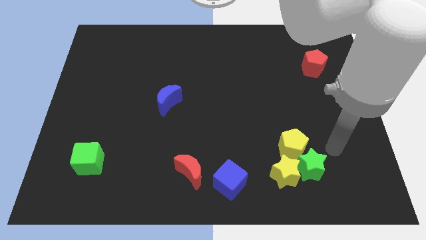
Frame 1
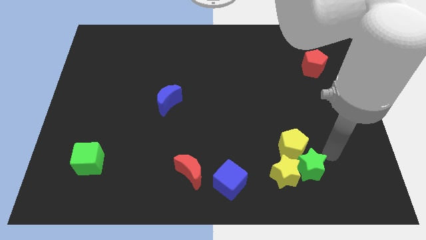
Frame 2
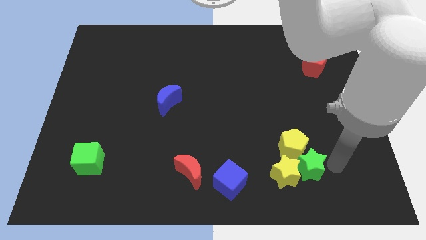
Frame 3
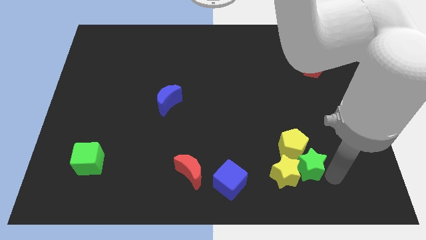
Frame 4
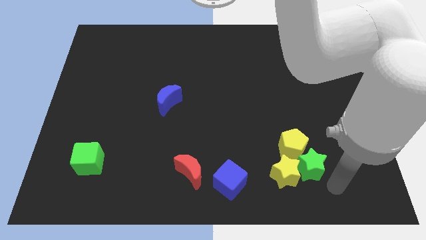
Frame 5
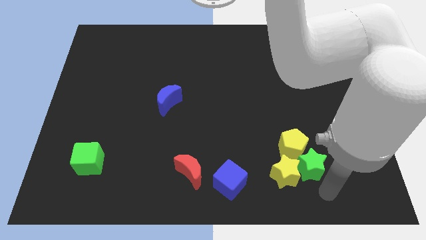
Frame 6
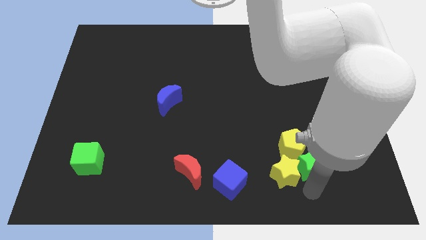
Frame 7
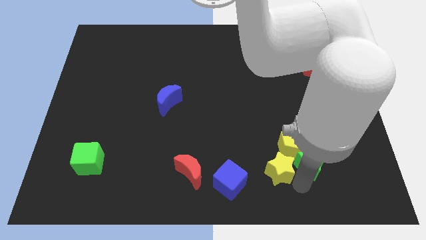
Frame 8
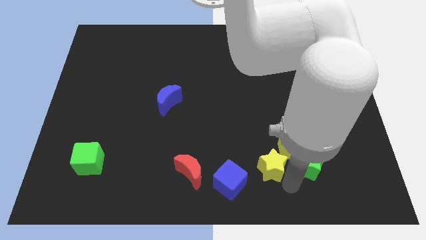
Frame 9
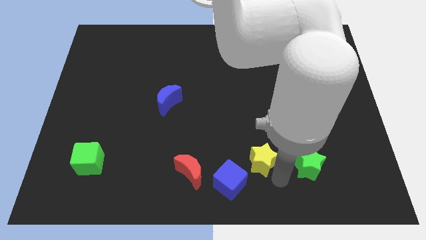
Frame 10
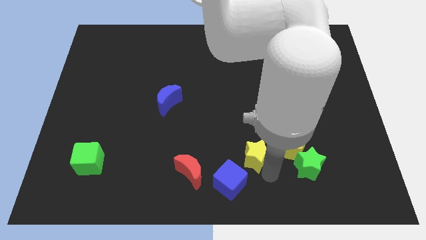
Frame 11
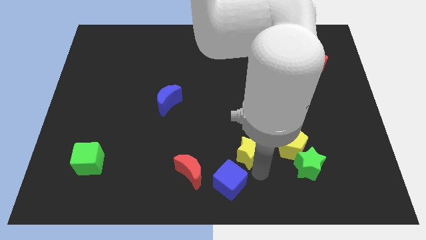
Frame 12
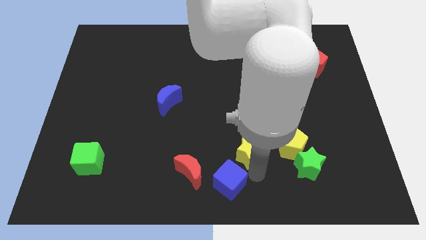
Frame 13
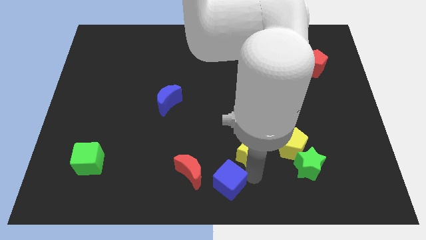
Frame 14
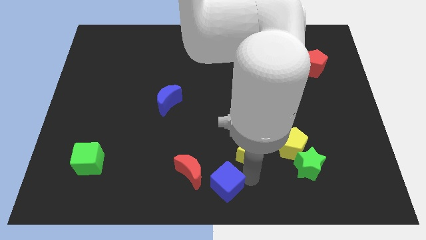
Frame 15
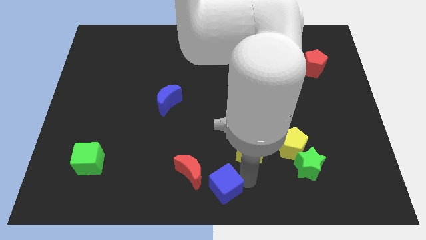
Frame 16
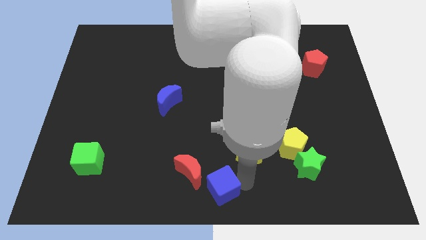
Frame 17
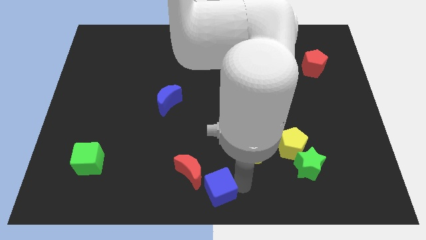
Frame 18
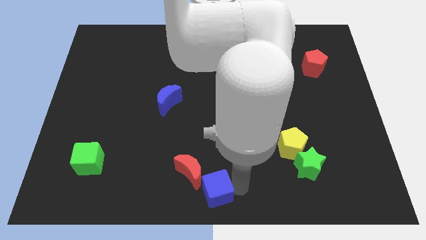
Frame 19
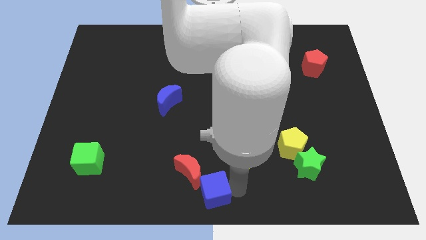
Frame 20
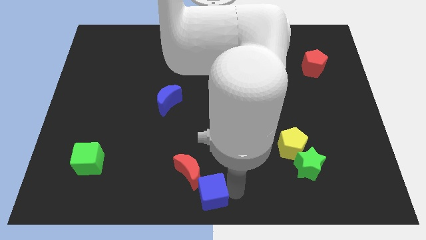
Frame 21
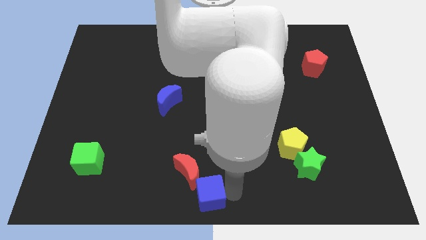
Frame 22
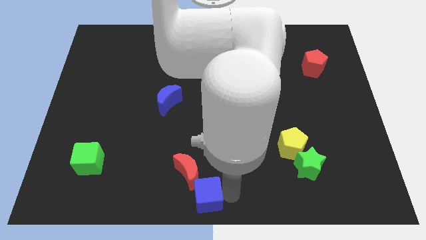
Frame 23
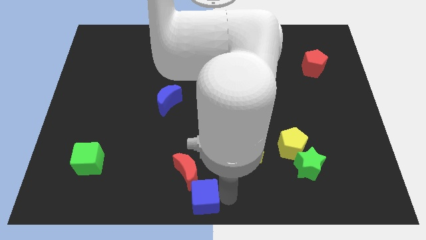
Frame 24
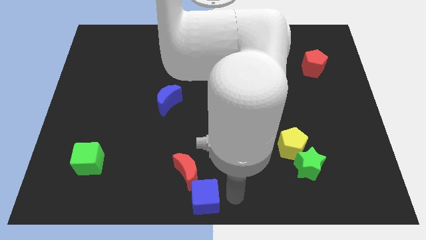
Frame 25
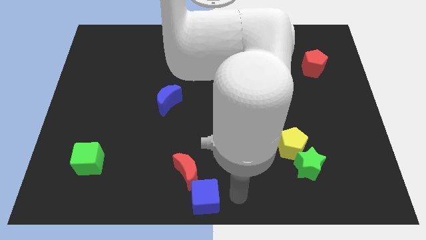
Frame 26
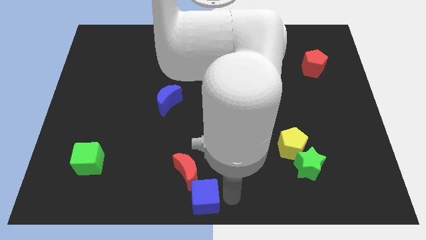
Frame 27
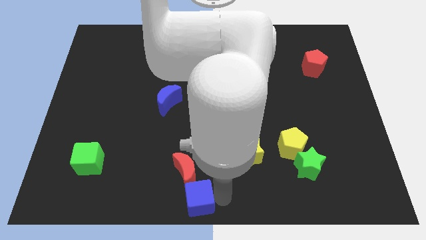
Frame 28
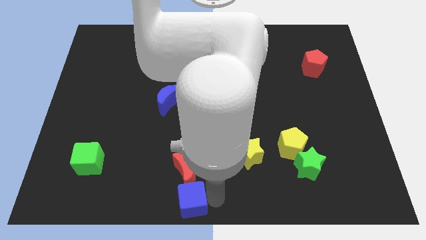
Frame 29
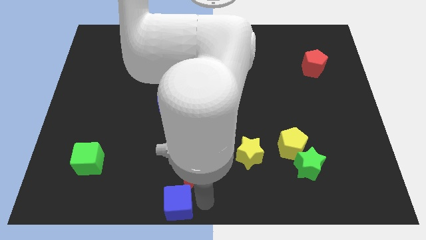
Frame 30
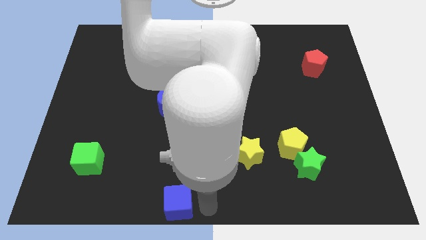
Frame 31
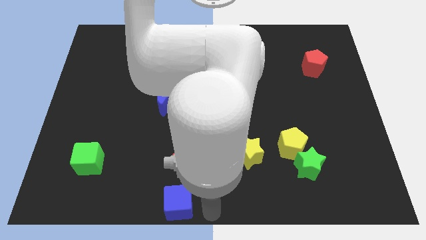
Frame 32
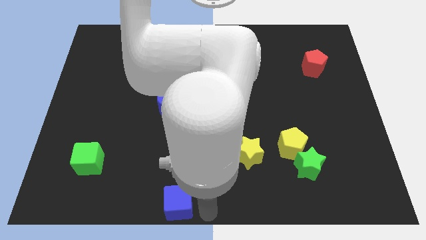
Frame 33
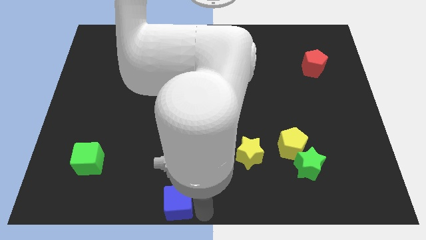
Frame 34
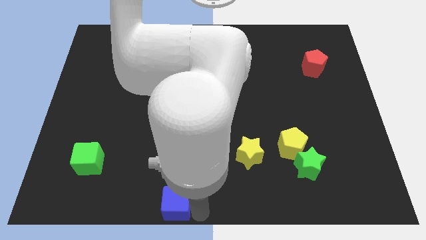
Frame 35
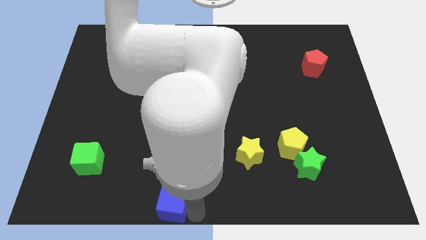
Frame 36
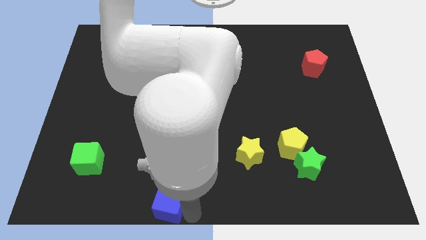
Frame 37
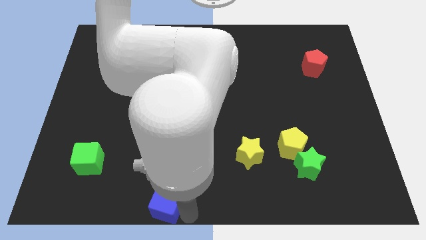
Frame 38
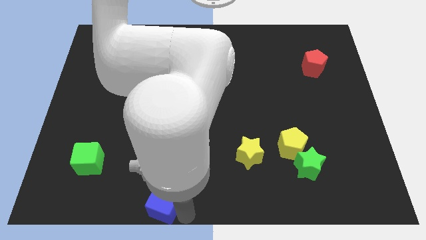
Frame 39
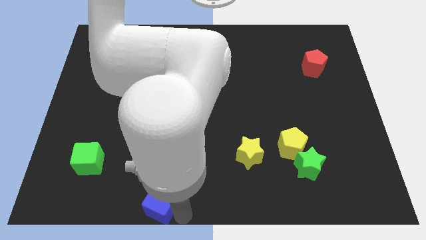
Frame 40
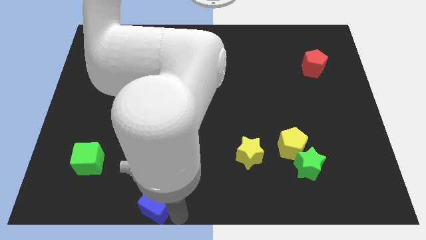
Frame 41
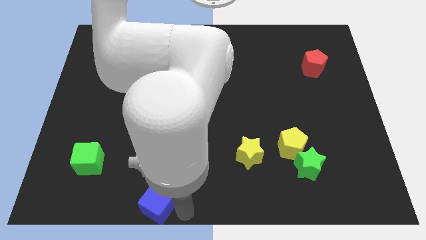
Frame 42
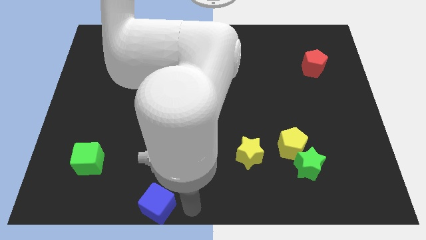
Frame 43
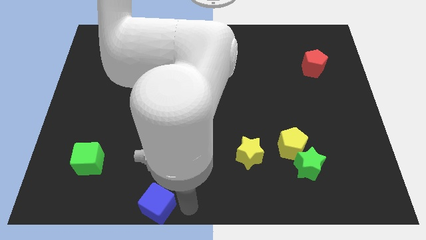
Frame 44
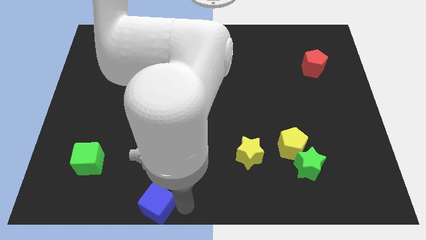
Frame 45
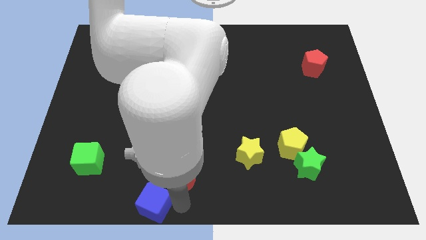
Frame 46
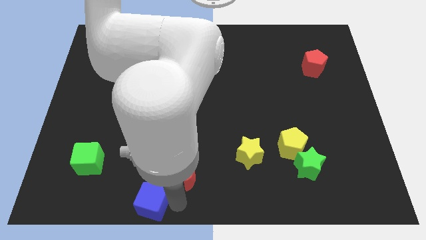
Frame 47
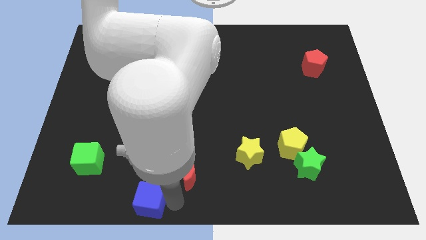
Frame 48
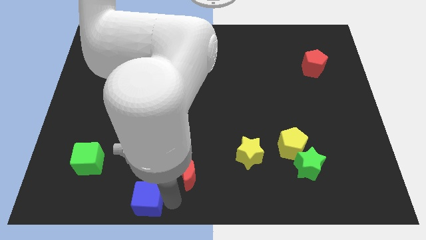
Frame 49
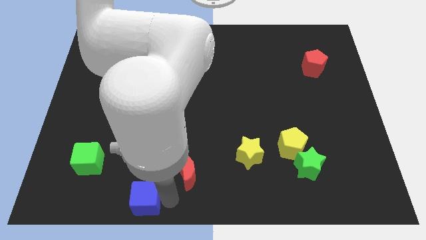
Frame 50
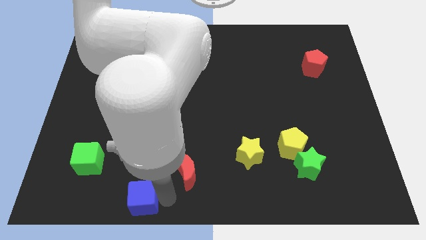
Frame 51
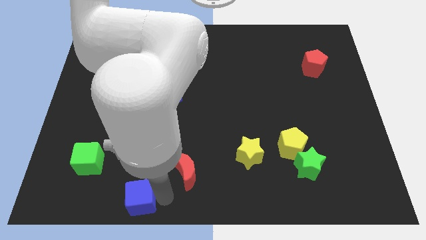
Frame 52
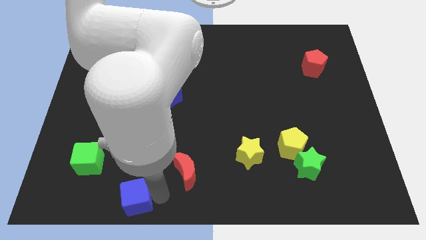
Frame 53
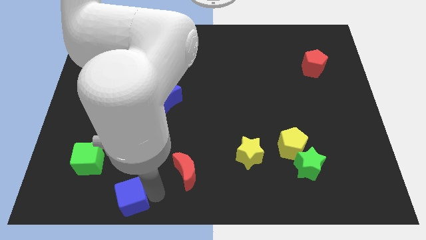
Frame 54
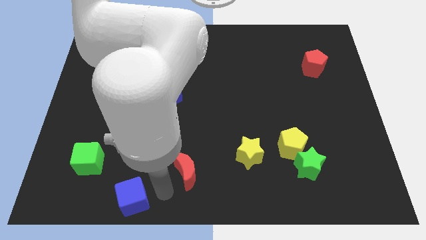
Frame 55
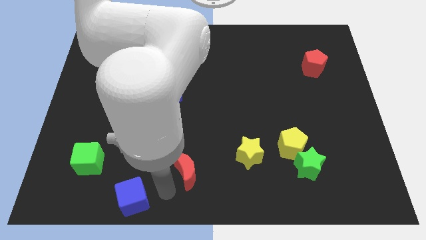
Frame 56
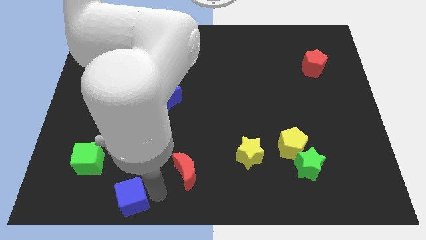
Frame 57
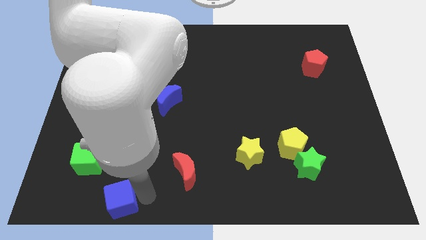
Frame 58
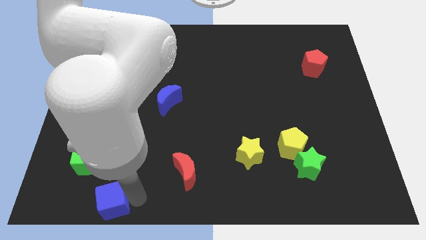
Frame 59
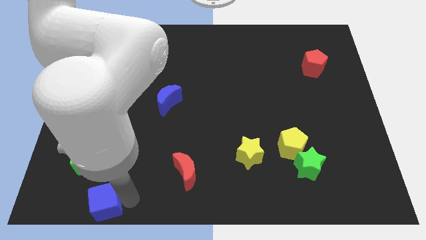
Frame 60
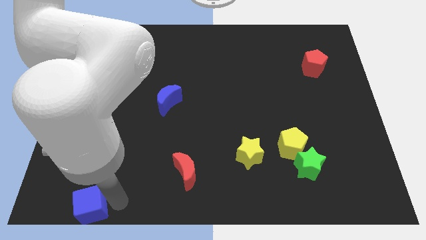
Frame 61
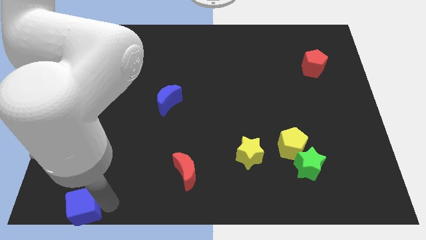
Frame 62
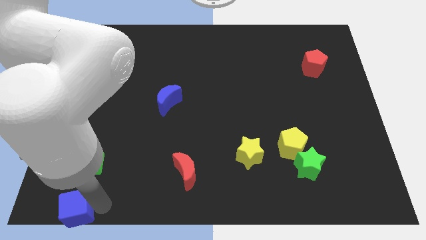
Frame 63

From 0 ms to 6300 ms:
move the blue cube to the bottom left of the board

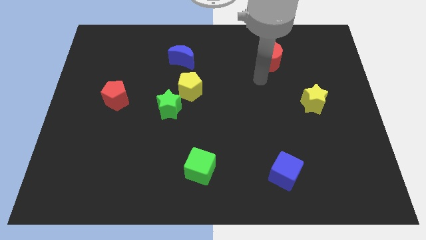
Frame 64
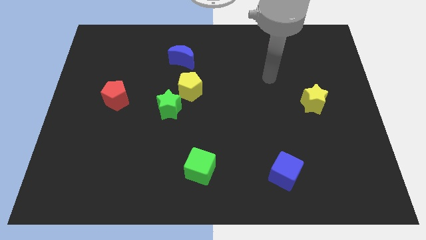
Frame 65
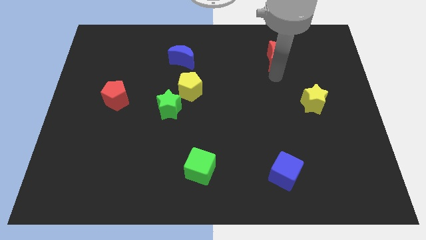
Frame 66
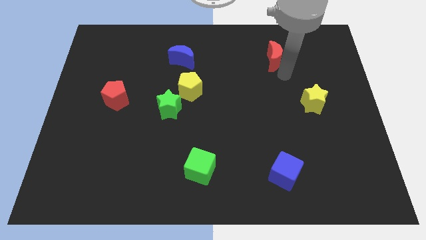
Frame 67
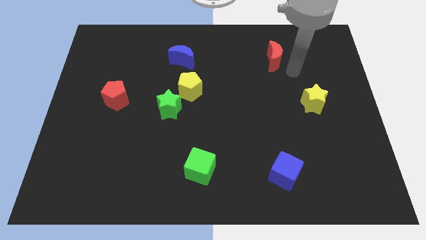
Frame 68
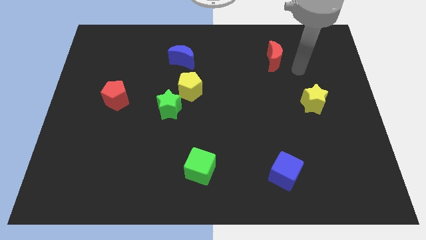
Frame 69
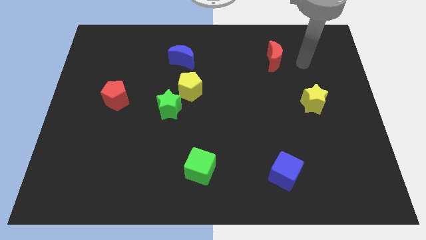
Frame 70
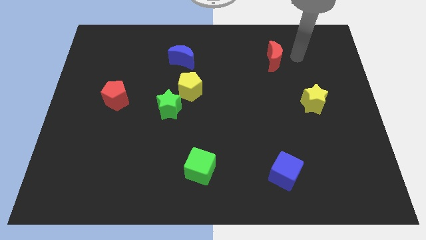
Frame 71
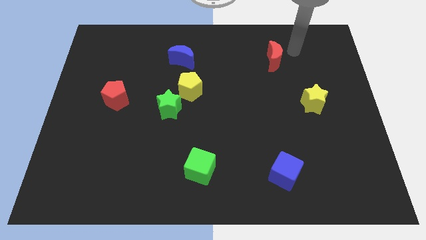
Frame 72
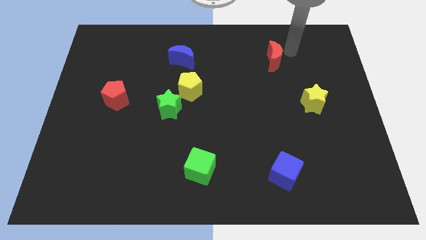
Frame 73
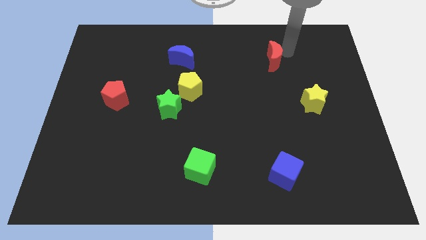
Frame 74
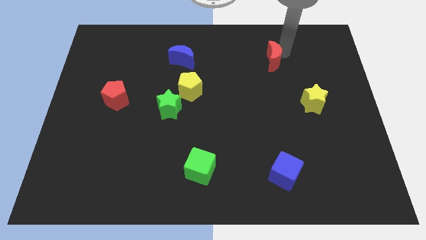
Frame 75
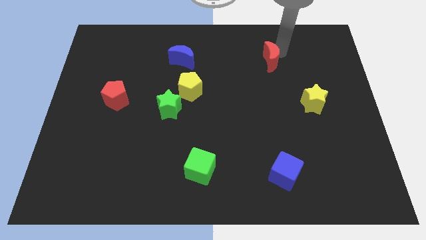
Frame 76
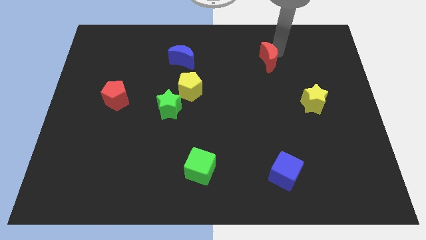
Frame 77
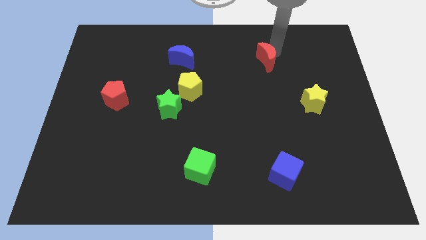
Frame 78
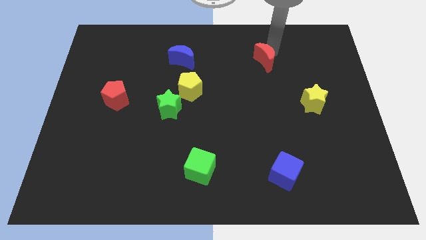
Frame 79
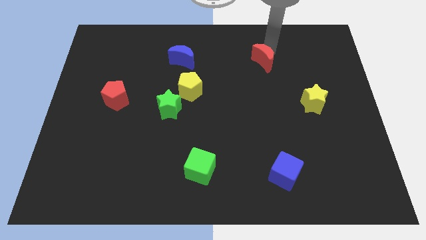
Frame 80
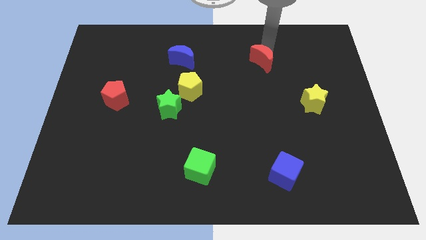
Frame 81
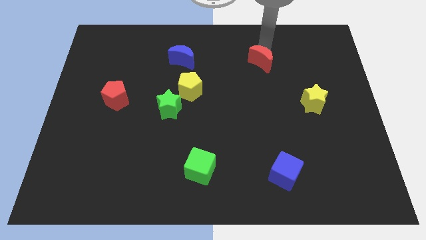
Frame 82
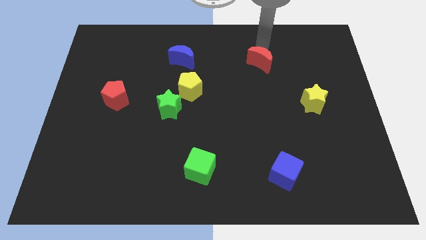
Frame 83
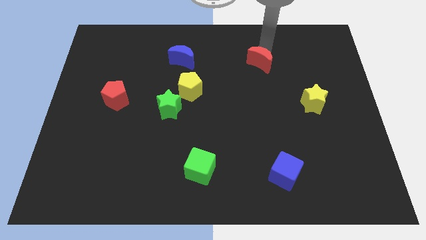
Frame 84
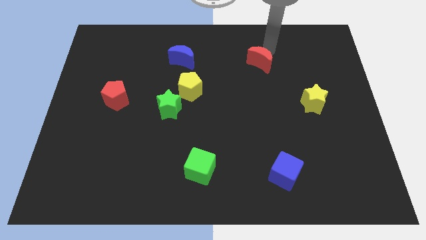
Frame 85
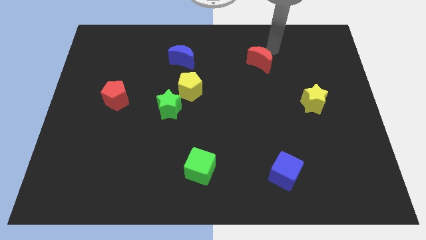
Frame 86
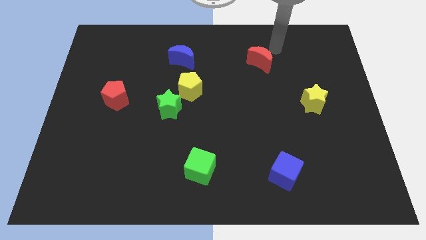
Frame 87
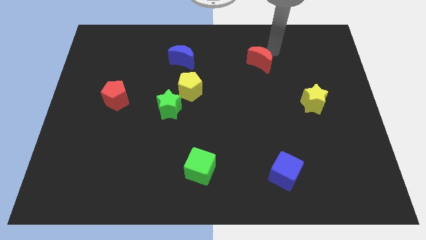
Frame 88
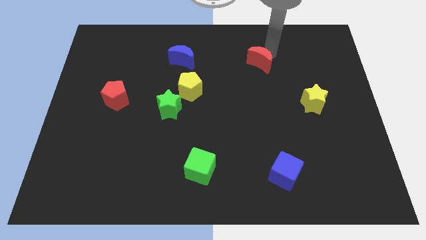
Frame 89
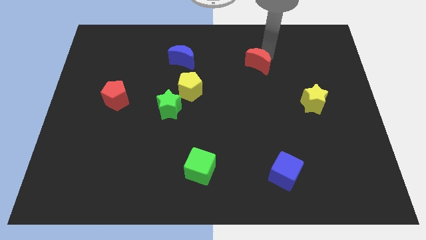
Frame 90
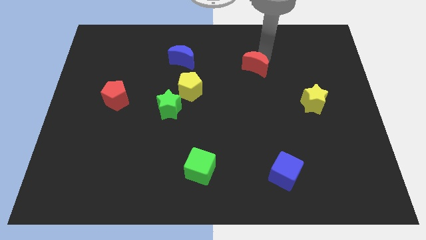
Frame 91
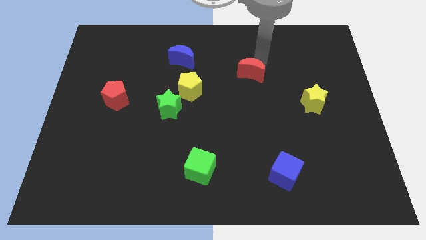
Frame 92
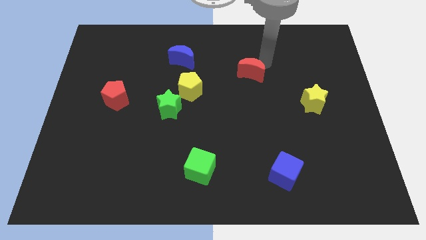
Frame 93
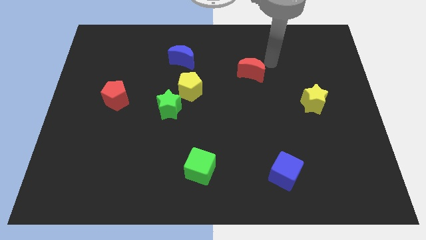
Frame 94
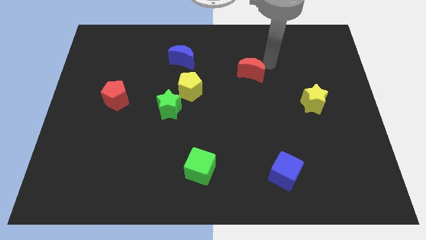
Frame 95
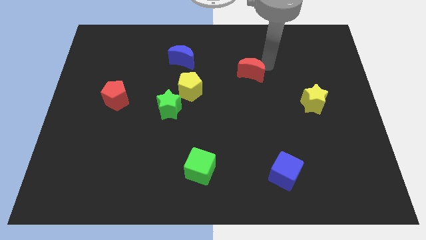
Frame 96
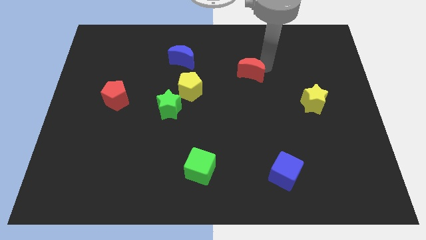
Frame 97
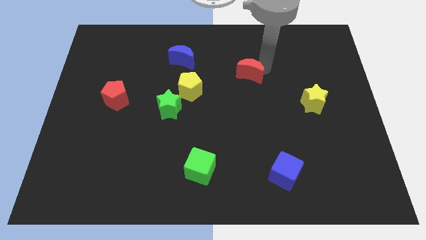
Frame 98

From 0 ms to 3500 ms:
push the red moon to the center of the board
